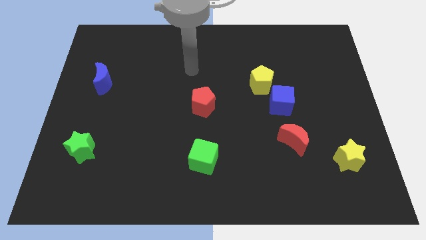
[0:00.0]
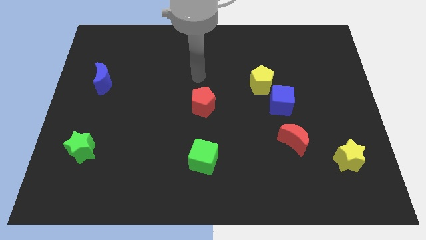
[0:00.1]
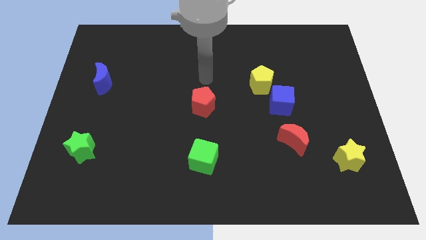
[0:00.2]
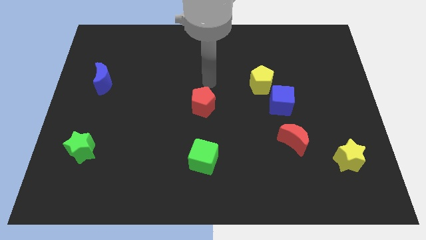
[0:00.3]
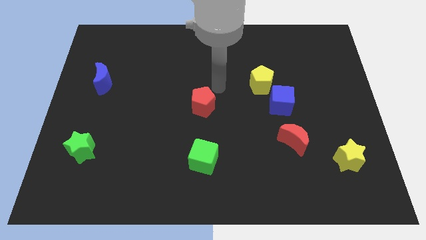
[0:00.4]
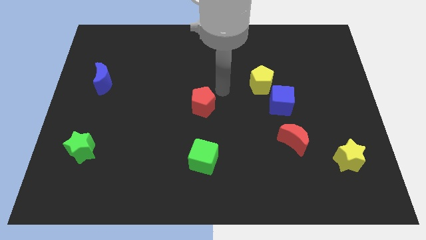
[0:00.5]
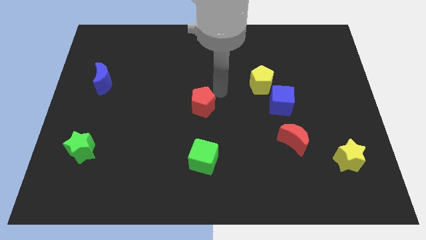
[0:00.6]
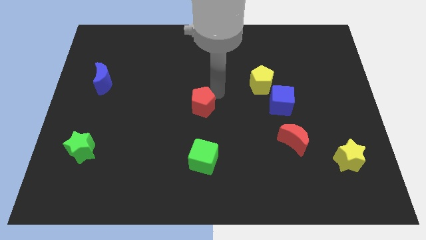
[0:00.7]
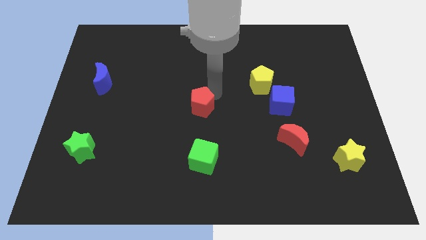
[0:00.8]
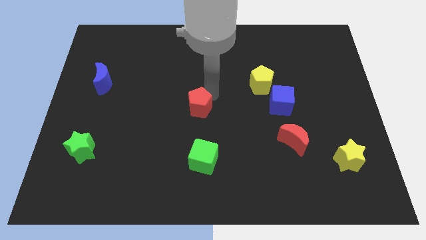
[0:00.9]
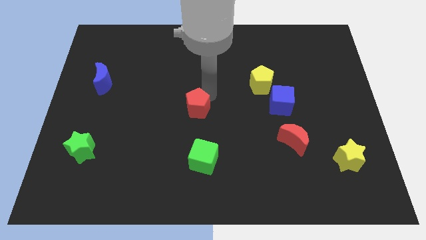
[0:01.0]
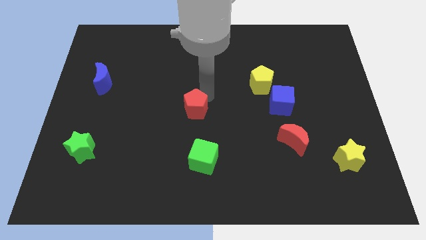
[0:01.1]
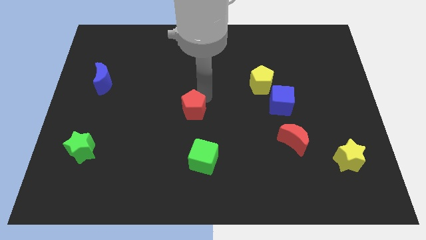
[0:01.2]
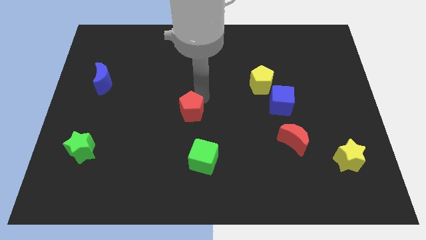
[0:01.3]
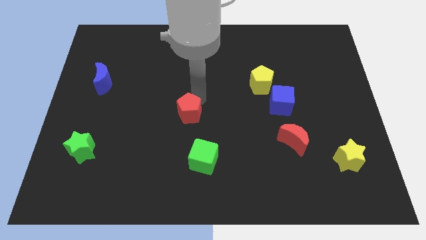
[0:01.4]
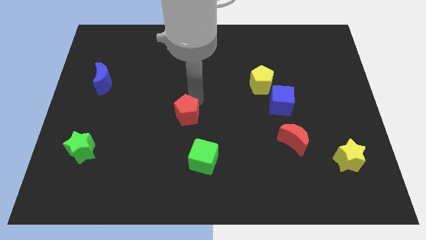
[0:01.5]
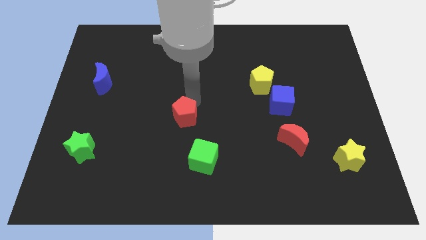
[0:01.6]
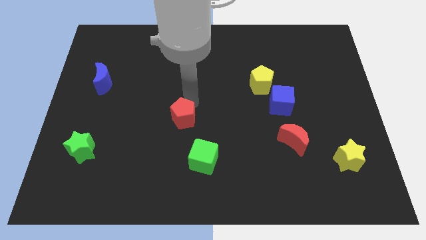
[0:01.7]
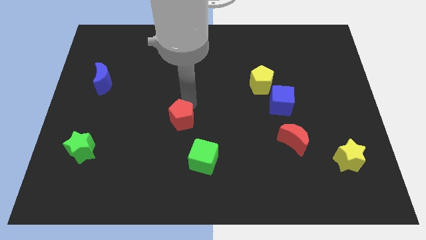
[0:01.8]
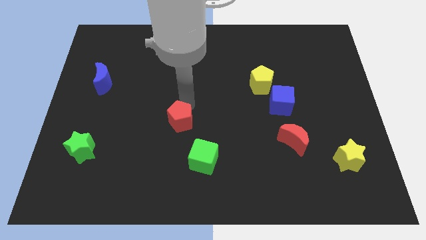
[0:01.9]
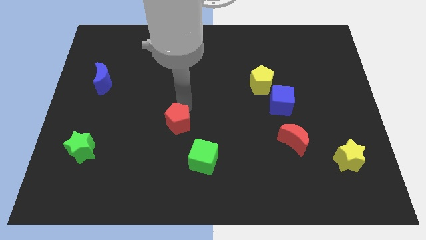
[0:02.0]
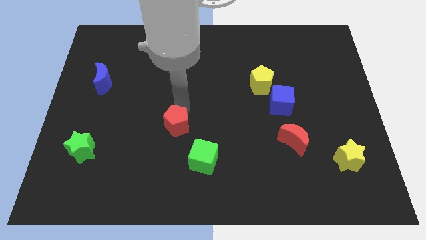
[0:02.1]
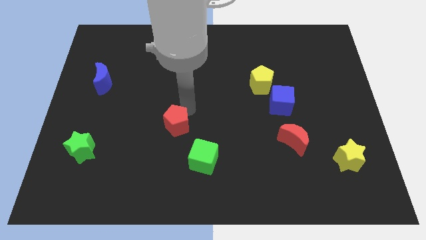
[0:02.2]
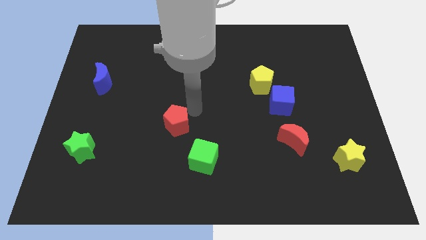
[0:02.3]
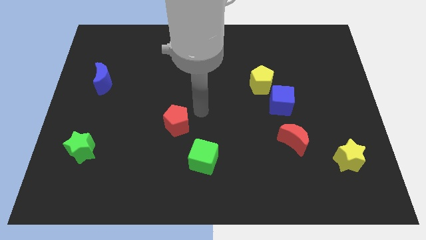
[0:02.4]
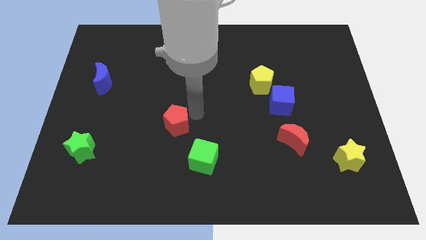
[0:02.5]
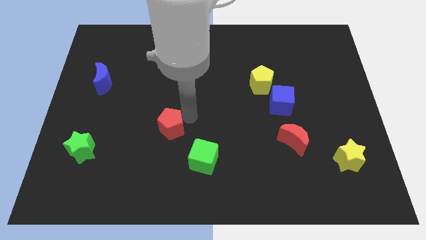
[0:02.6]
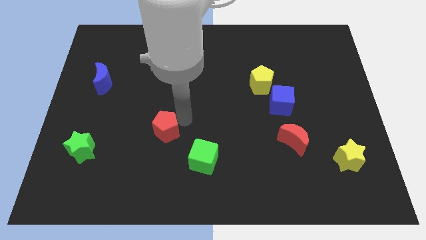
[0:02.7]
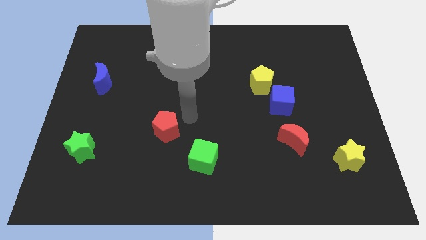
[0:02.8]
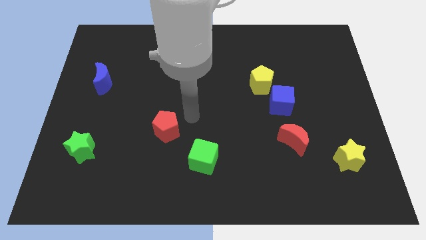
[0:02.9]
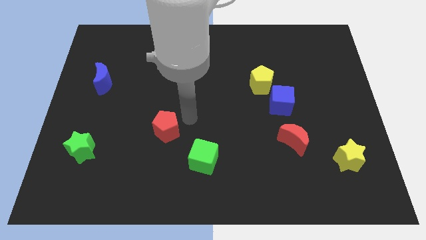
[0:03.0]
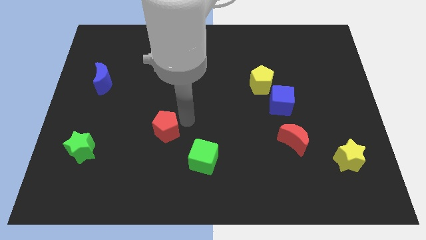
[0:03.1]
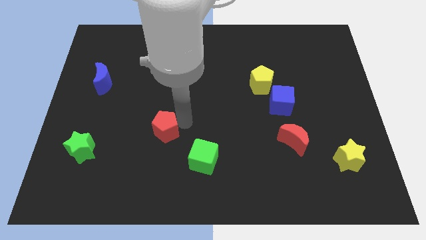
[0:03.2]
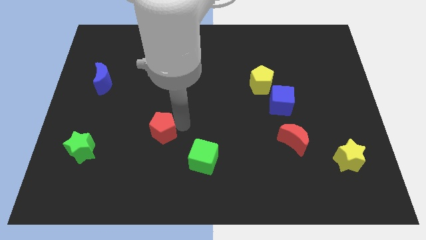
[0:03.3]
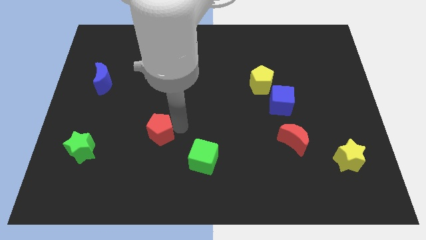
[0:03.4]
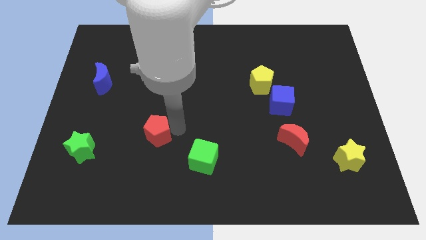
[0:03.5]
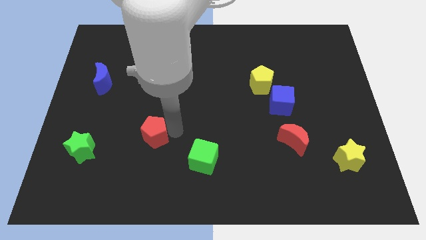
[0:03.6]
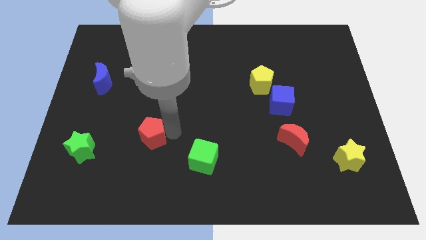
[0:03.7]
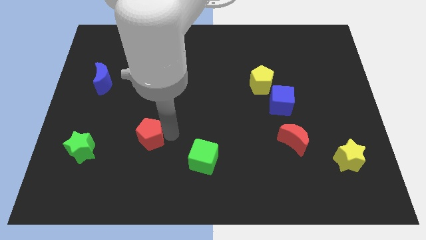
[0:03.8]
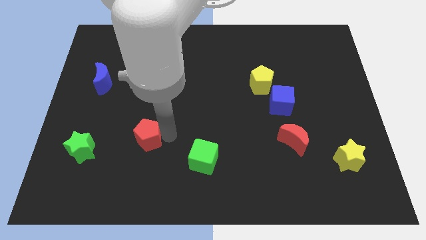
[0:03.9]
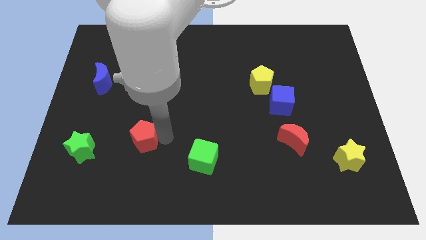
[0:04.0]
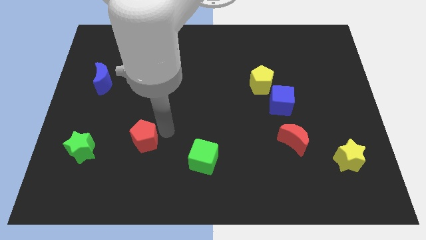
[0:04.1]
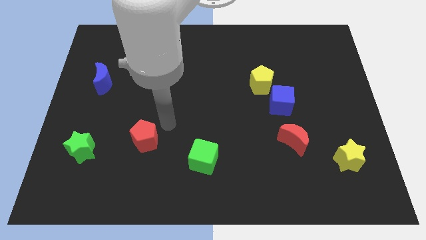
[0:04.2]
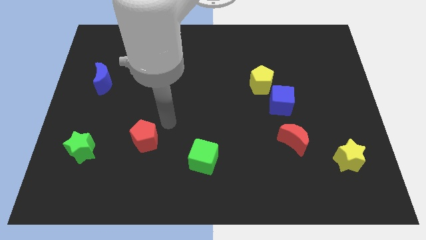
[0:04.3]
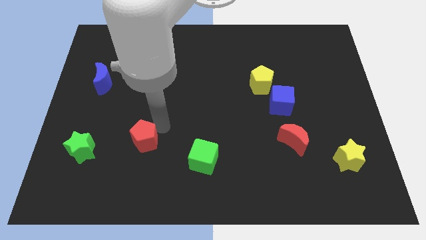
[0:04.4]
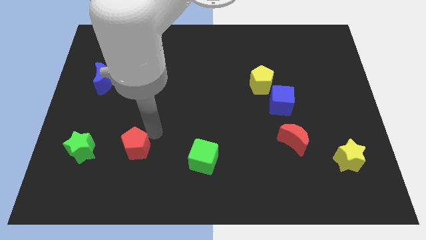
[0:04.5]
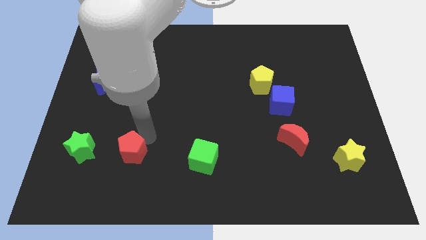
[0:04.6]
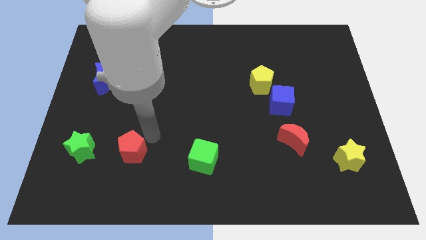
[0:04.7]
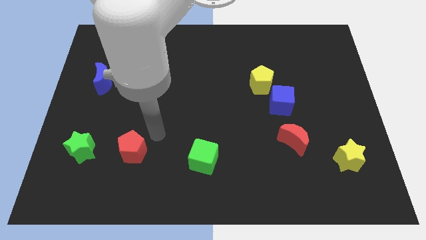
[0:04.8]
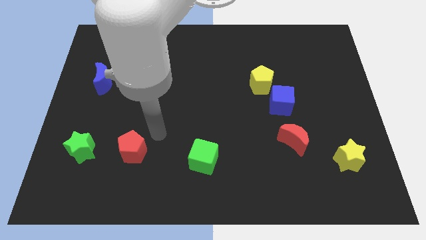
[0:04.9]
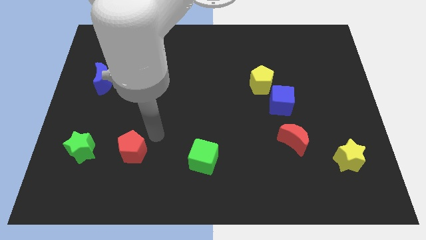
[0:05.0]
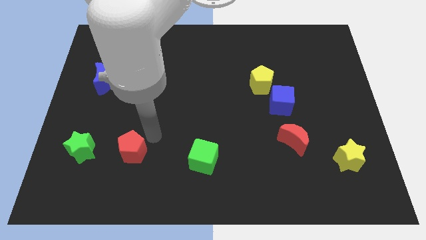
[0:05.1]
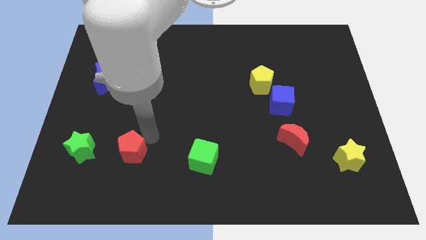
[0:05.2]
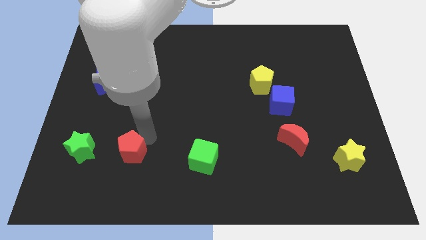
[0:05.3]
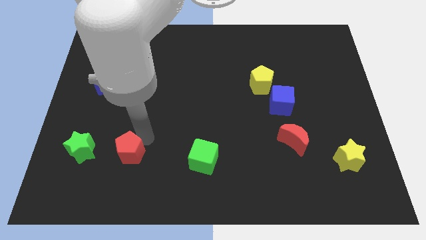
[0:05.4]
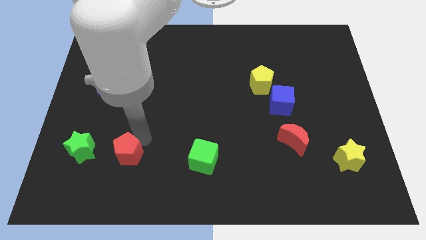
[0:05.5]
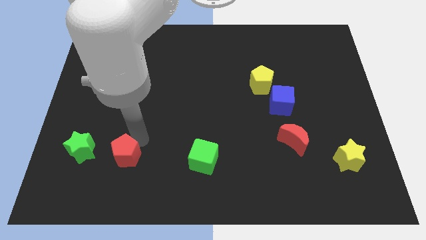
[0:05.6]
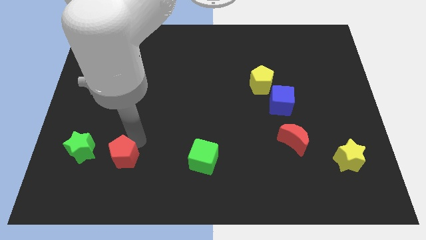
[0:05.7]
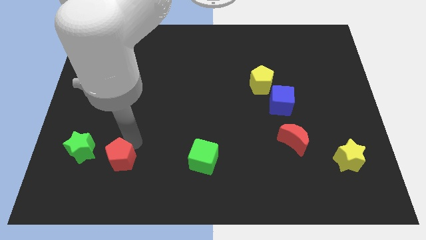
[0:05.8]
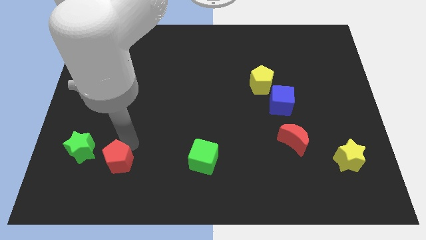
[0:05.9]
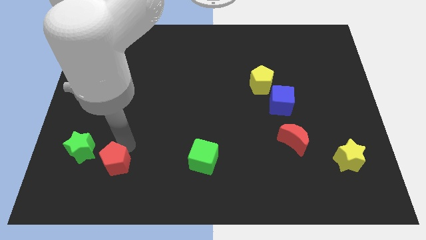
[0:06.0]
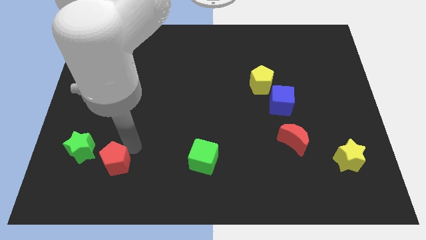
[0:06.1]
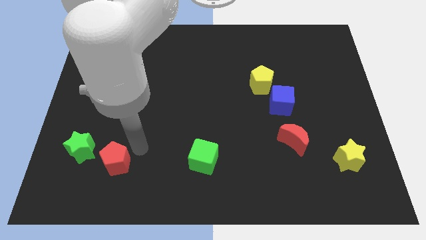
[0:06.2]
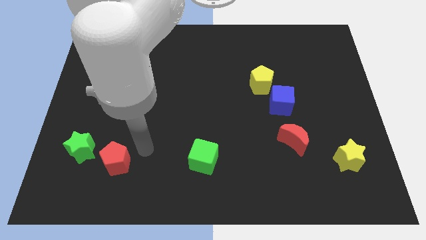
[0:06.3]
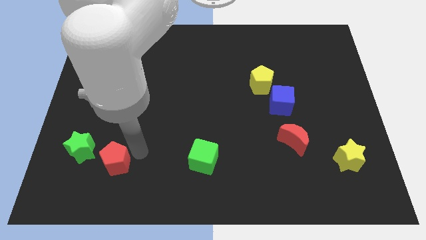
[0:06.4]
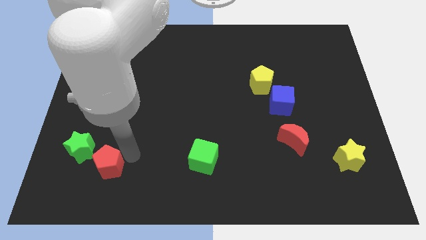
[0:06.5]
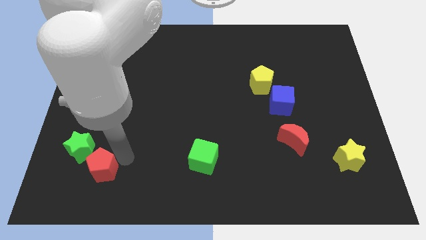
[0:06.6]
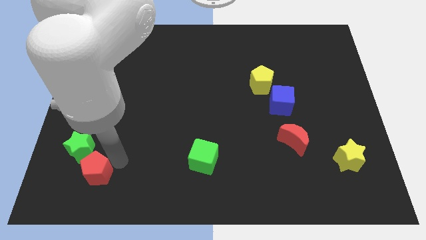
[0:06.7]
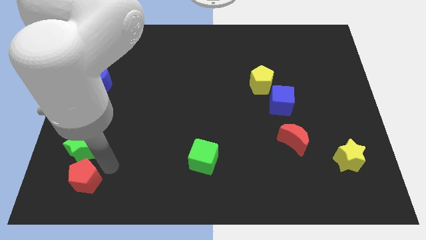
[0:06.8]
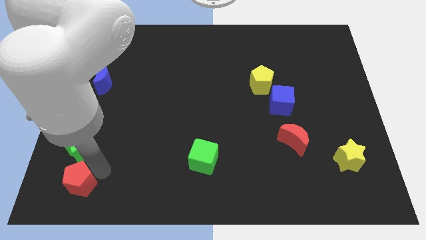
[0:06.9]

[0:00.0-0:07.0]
push the red pentagon to the bottom left
